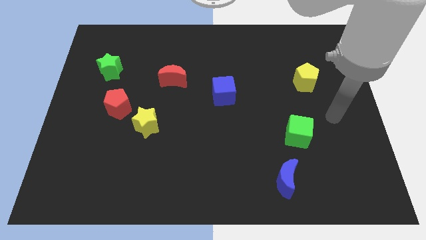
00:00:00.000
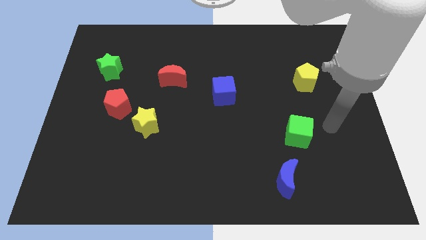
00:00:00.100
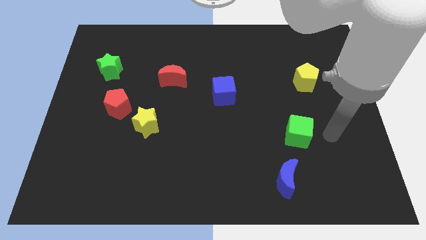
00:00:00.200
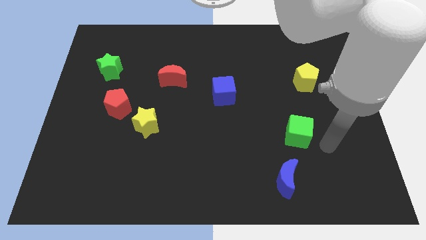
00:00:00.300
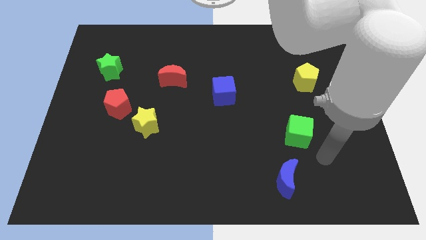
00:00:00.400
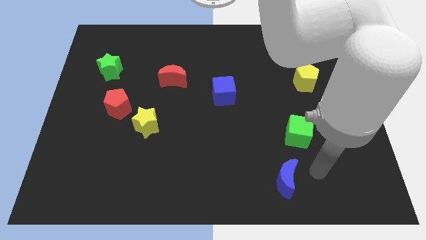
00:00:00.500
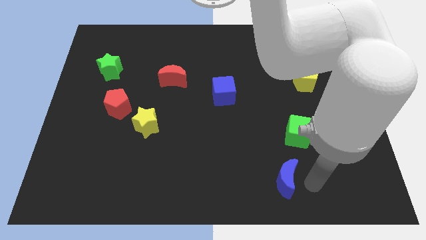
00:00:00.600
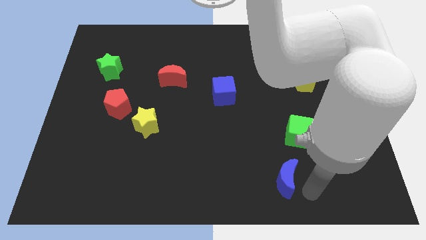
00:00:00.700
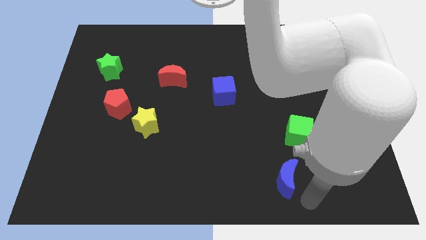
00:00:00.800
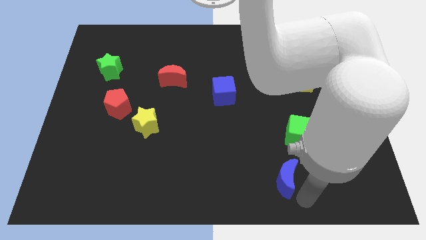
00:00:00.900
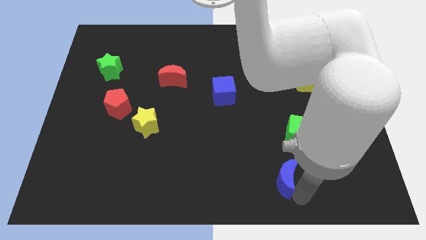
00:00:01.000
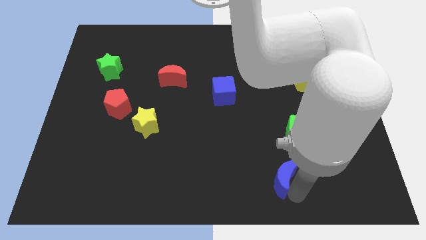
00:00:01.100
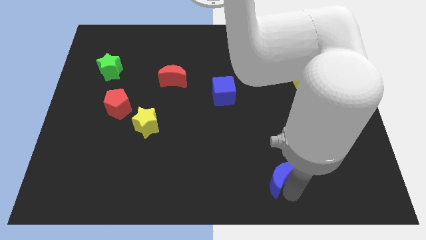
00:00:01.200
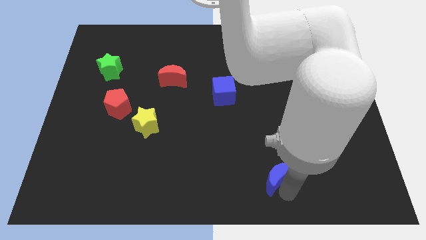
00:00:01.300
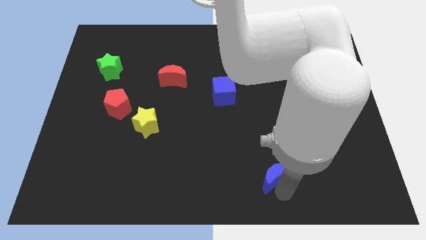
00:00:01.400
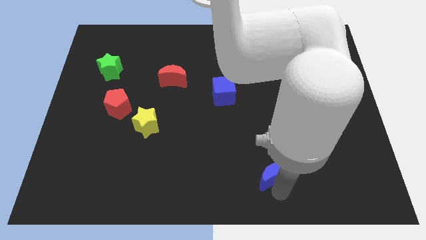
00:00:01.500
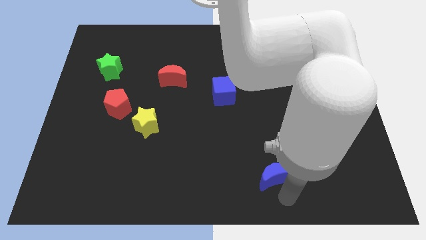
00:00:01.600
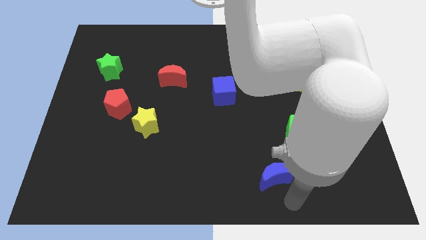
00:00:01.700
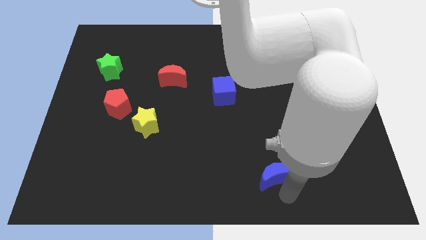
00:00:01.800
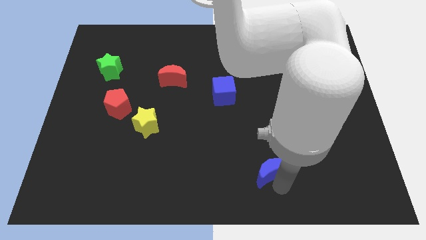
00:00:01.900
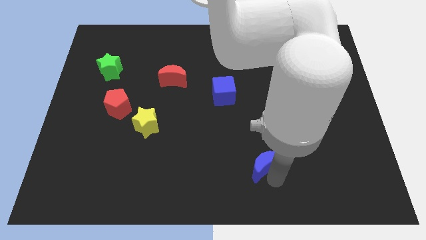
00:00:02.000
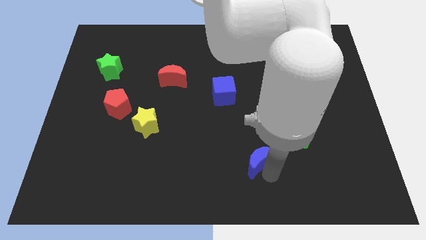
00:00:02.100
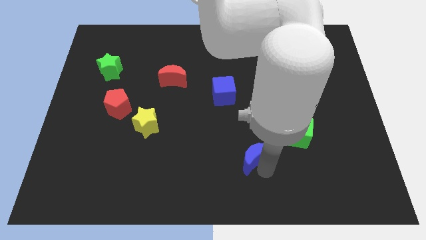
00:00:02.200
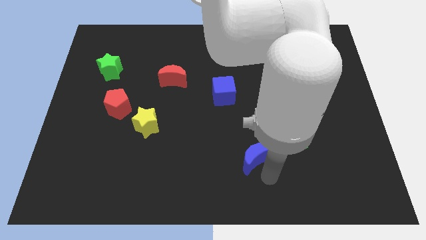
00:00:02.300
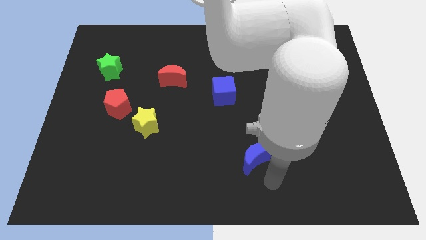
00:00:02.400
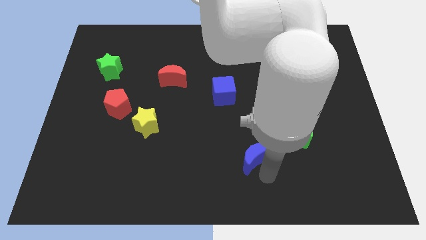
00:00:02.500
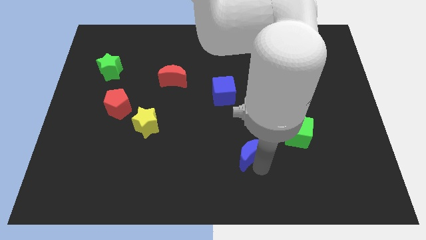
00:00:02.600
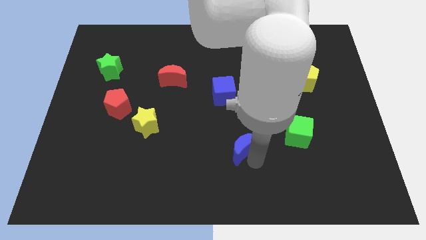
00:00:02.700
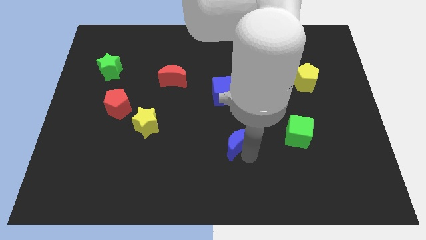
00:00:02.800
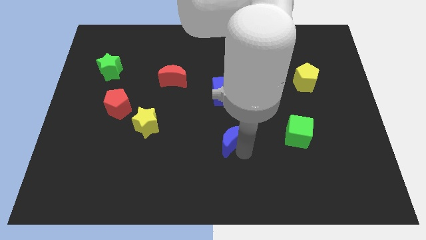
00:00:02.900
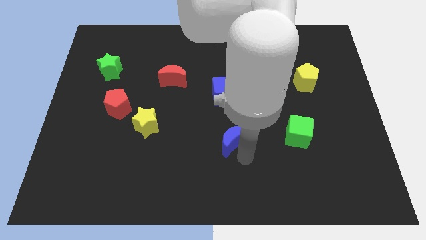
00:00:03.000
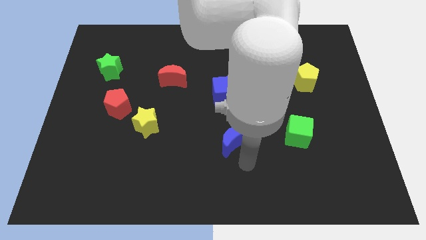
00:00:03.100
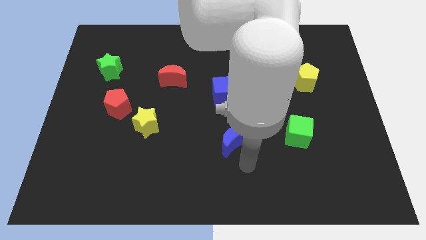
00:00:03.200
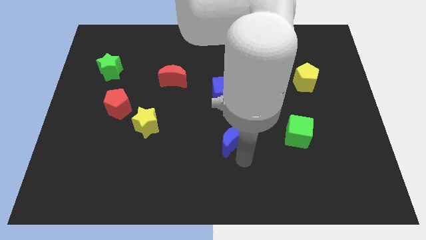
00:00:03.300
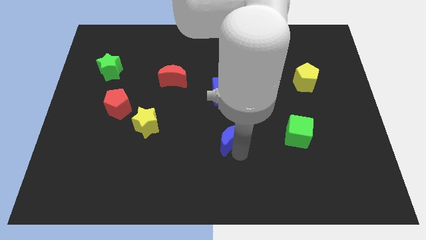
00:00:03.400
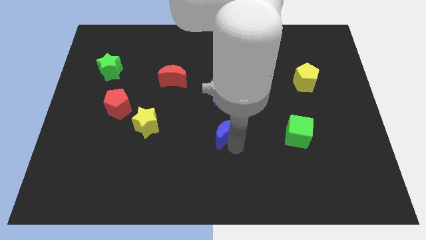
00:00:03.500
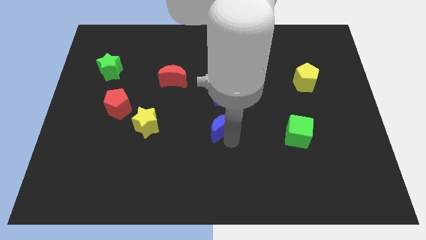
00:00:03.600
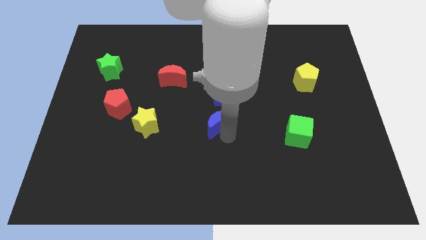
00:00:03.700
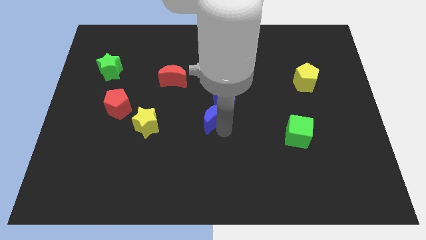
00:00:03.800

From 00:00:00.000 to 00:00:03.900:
move the blue moon upwards and to the left

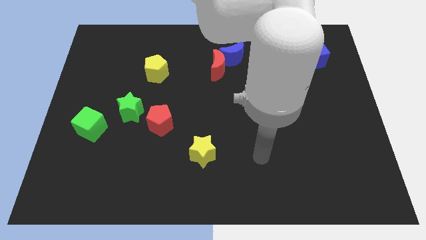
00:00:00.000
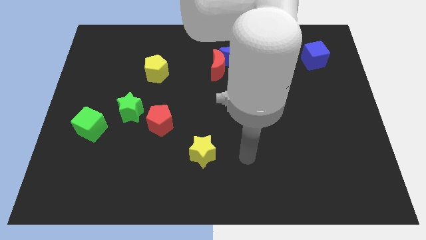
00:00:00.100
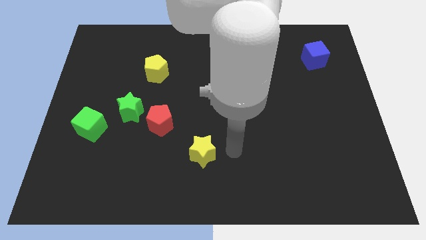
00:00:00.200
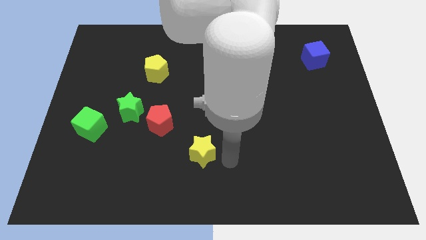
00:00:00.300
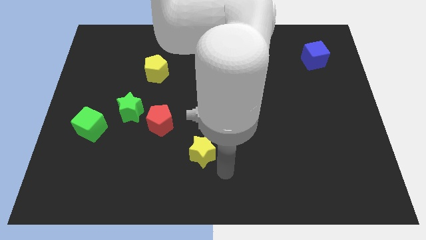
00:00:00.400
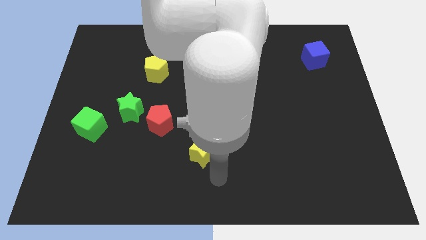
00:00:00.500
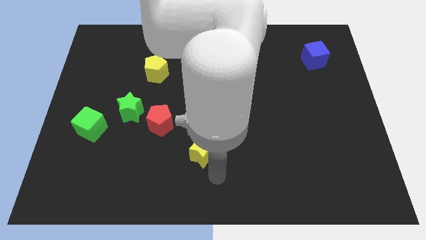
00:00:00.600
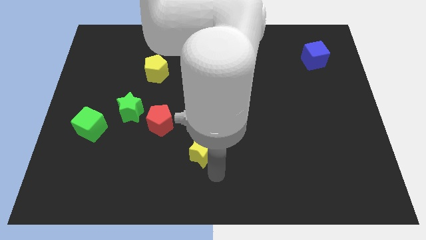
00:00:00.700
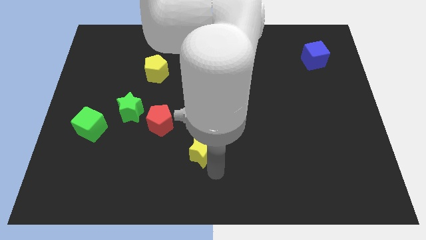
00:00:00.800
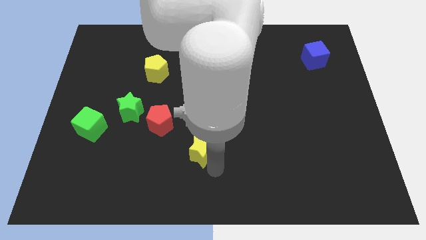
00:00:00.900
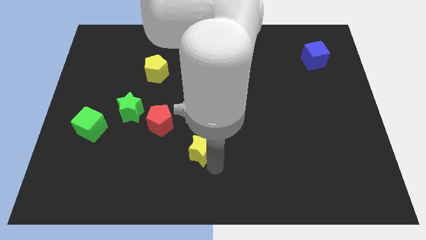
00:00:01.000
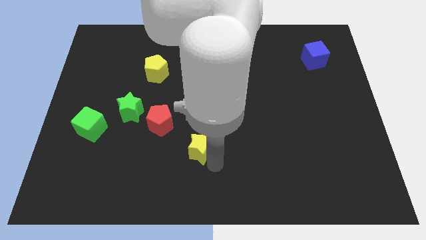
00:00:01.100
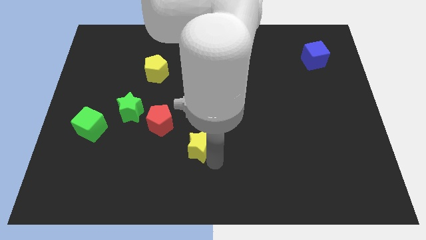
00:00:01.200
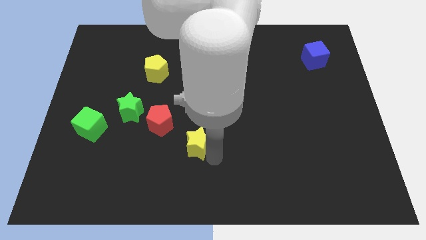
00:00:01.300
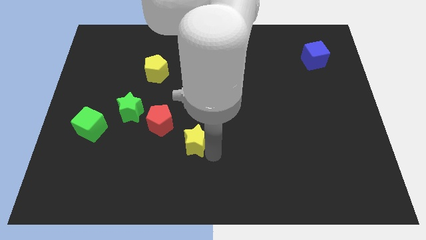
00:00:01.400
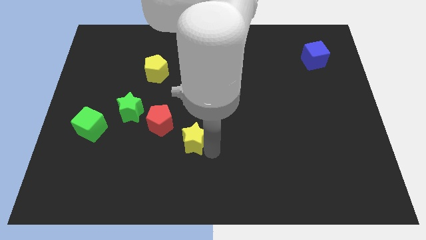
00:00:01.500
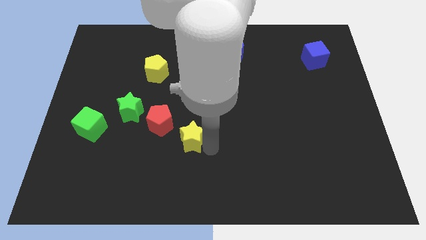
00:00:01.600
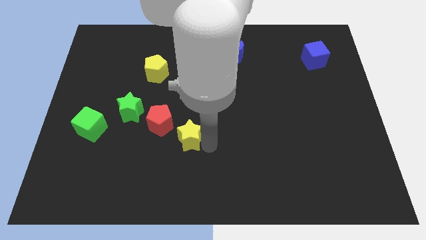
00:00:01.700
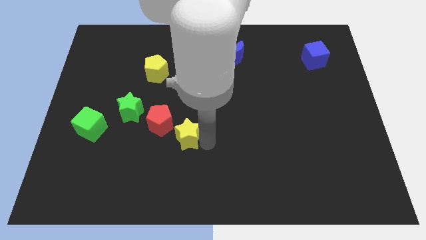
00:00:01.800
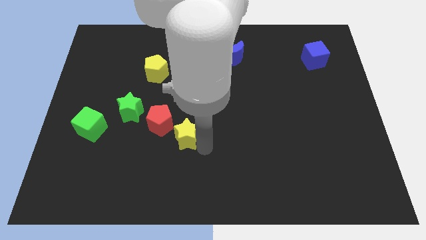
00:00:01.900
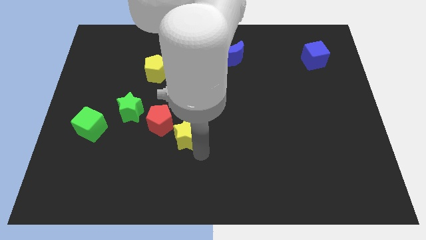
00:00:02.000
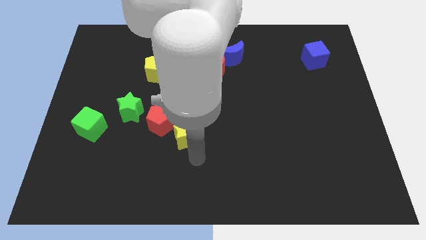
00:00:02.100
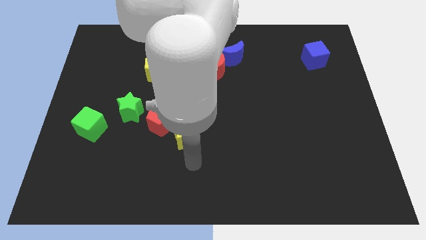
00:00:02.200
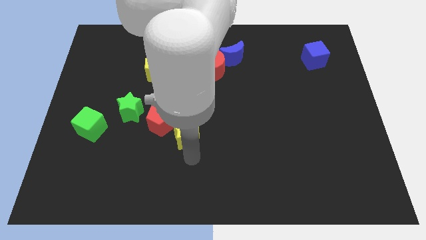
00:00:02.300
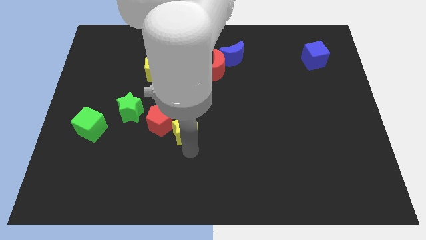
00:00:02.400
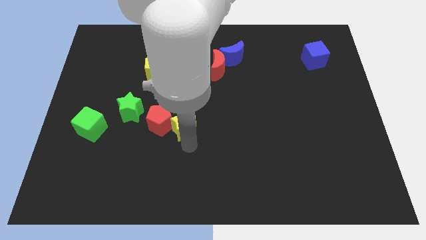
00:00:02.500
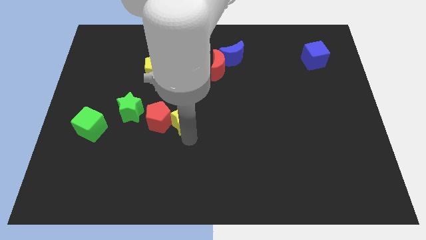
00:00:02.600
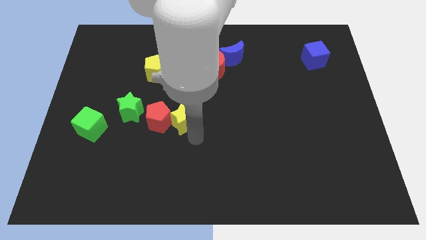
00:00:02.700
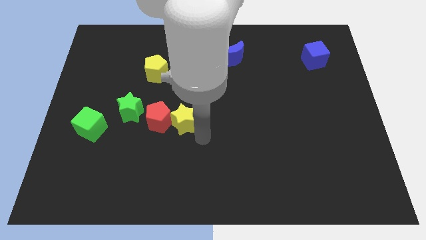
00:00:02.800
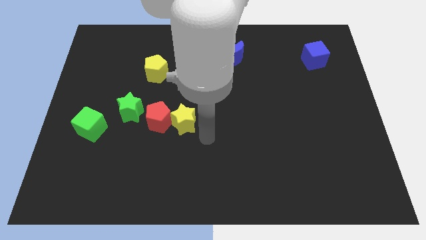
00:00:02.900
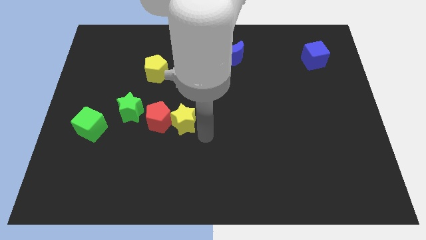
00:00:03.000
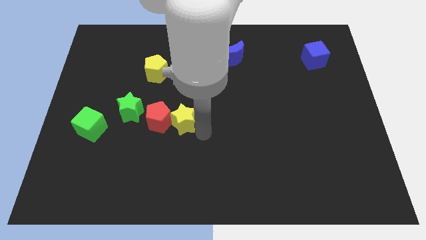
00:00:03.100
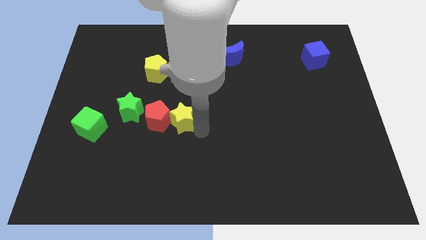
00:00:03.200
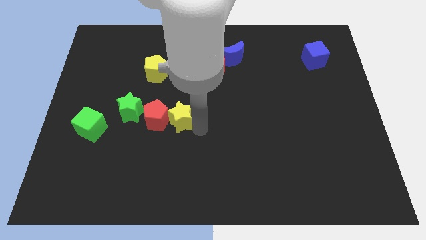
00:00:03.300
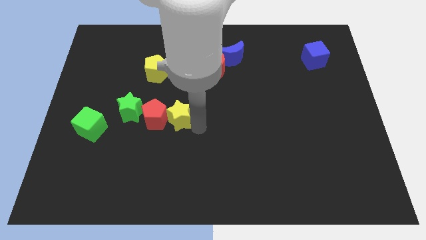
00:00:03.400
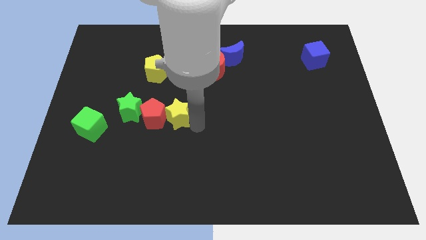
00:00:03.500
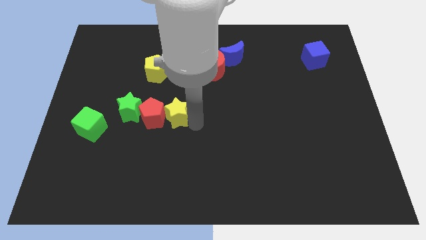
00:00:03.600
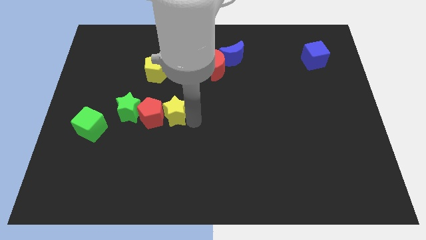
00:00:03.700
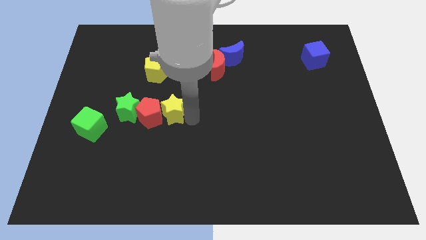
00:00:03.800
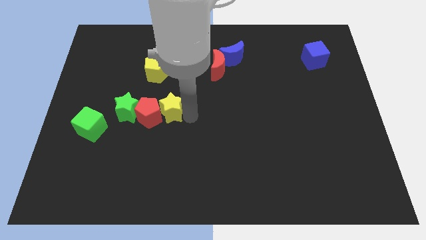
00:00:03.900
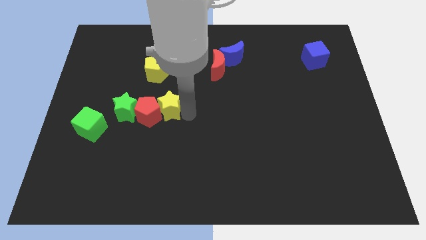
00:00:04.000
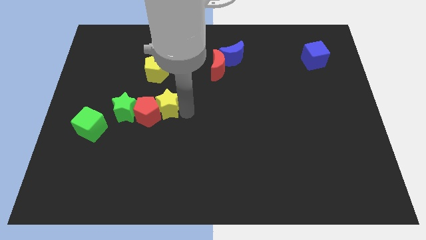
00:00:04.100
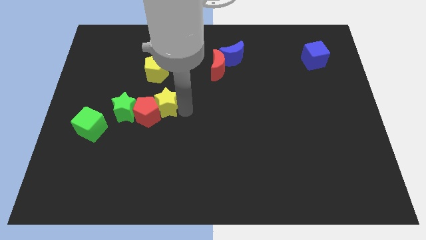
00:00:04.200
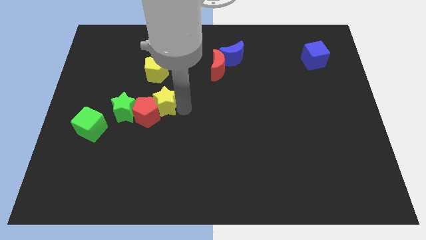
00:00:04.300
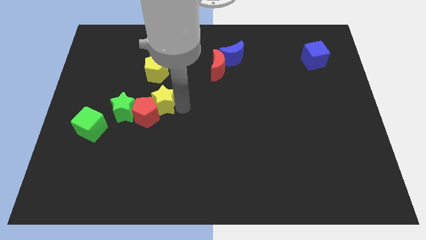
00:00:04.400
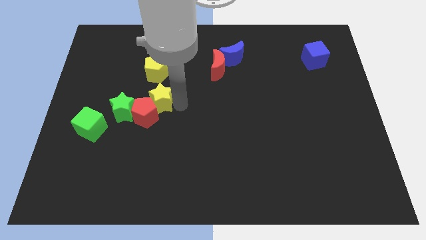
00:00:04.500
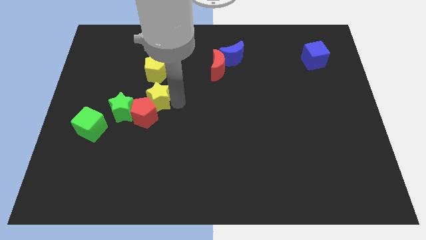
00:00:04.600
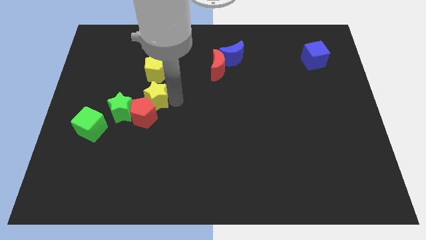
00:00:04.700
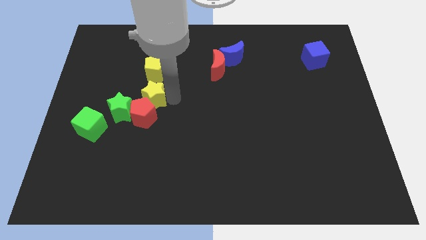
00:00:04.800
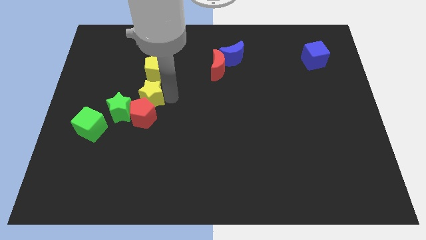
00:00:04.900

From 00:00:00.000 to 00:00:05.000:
slide the yellow star up and then left
